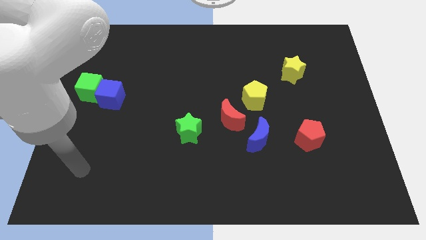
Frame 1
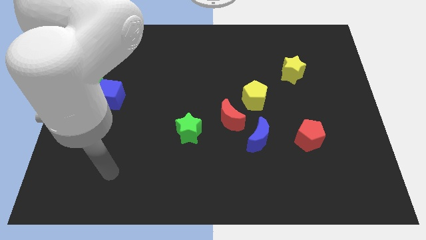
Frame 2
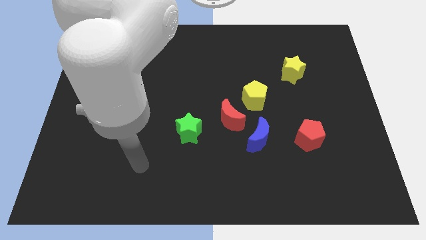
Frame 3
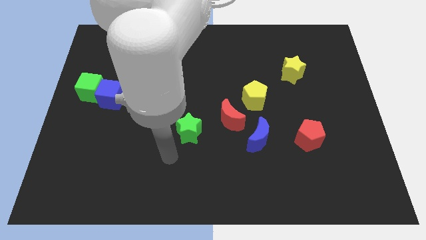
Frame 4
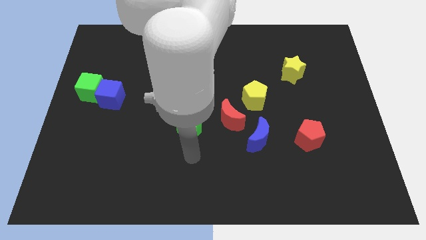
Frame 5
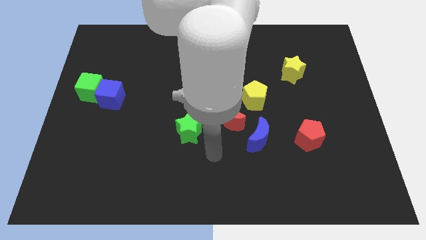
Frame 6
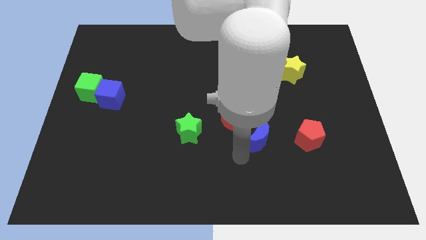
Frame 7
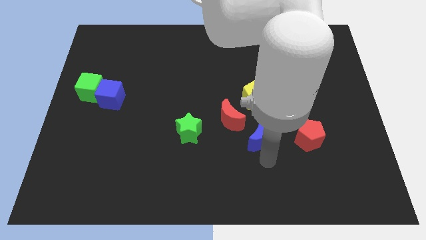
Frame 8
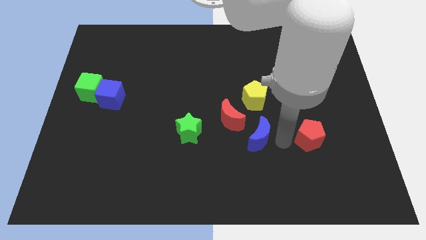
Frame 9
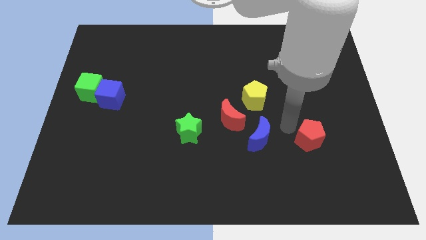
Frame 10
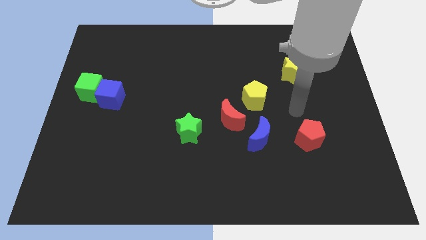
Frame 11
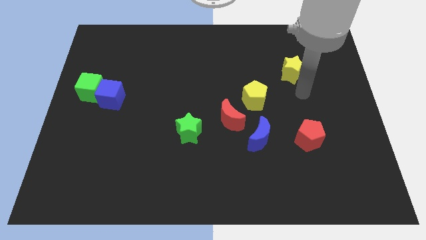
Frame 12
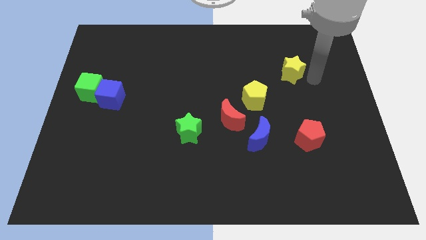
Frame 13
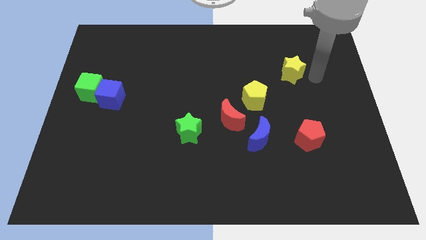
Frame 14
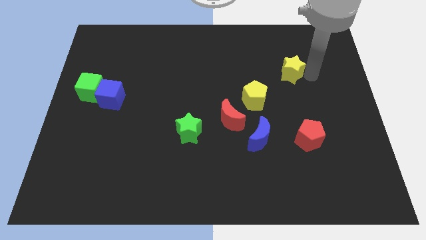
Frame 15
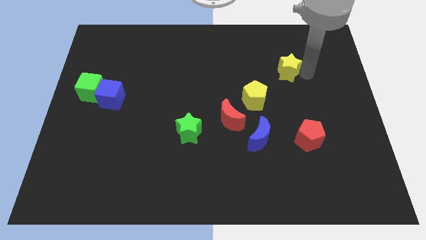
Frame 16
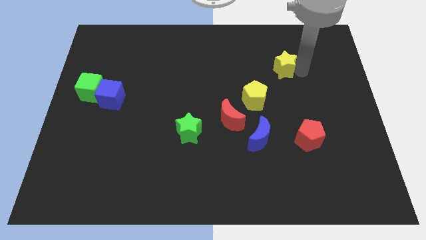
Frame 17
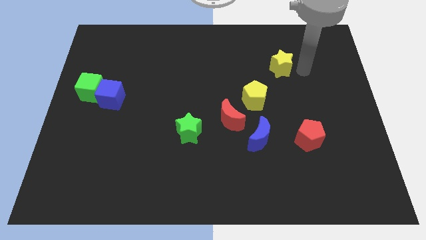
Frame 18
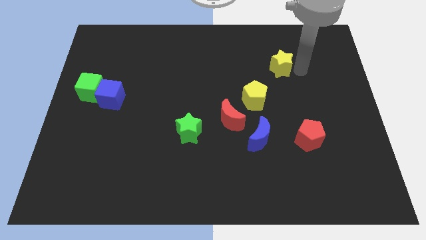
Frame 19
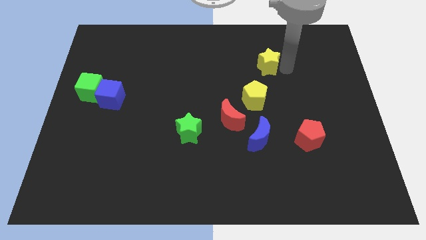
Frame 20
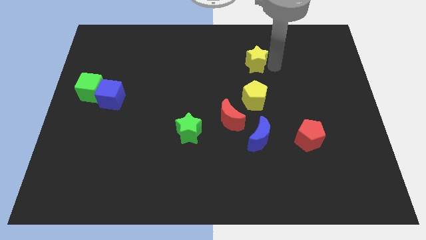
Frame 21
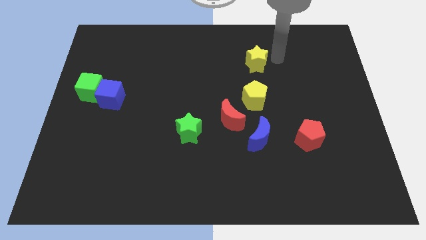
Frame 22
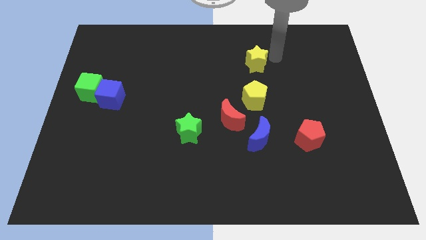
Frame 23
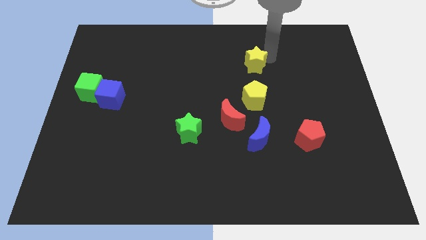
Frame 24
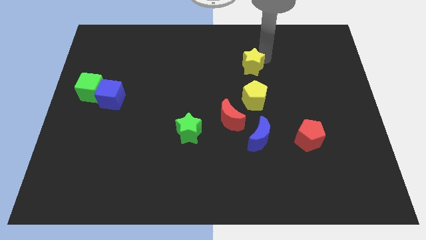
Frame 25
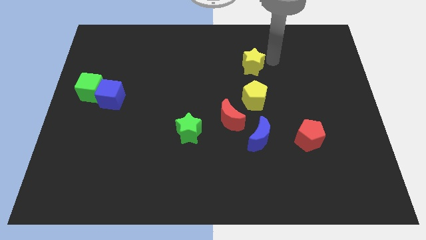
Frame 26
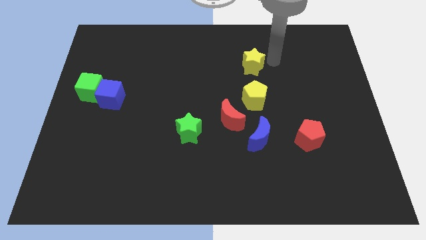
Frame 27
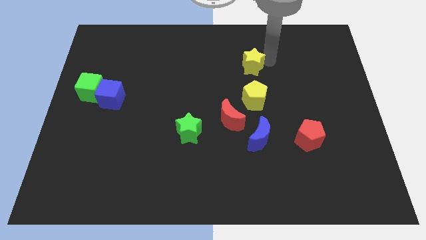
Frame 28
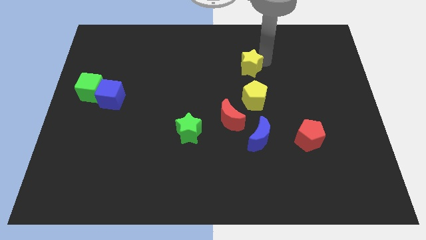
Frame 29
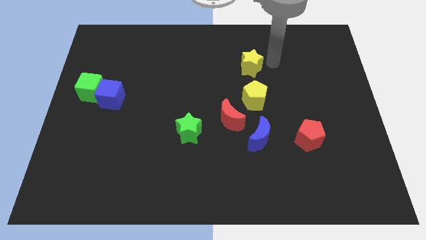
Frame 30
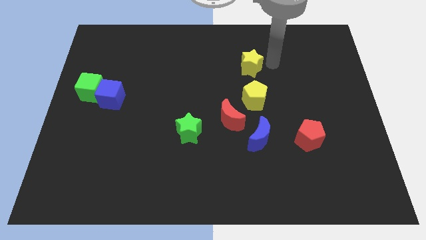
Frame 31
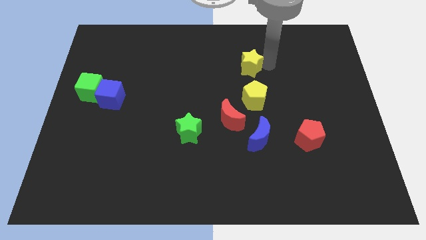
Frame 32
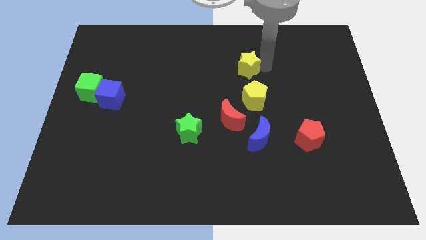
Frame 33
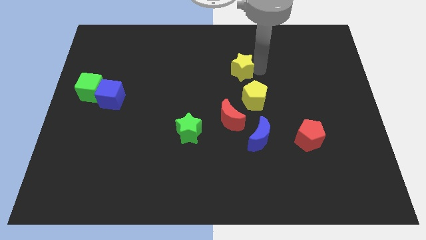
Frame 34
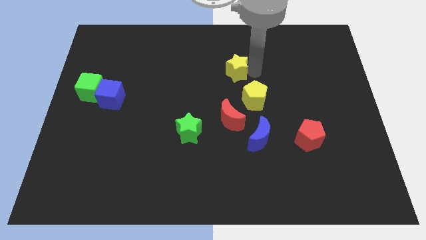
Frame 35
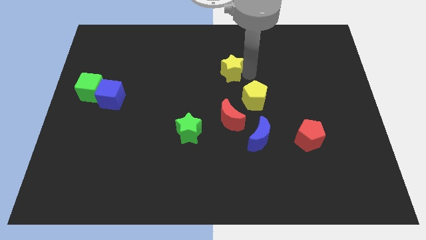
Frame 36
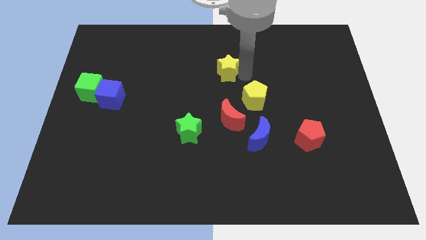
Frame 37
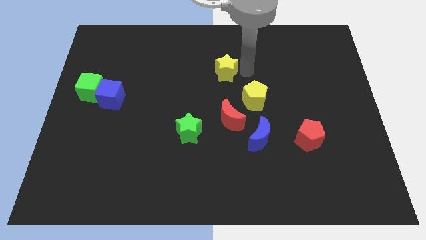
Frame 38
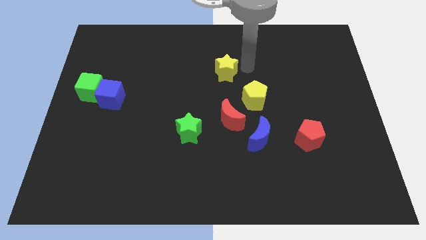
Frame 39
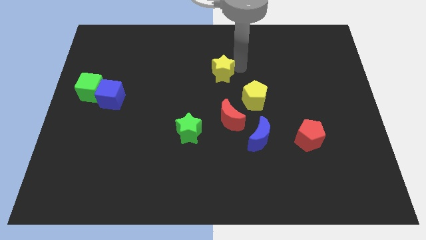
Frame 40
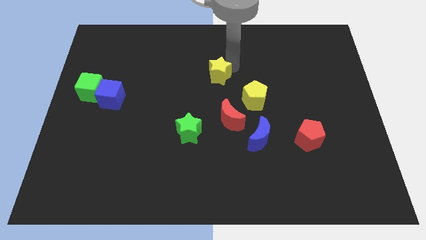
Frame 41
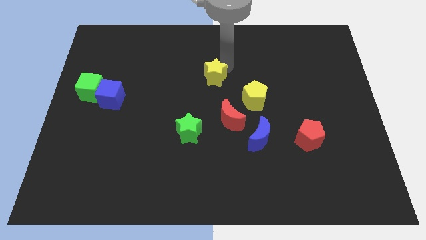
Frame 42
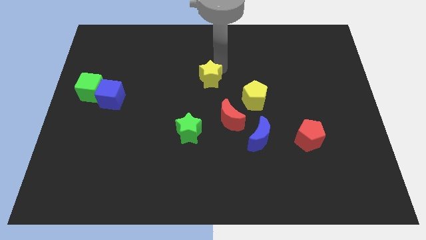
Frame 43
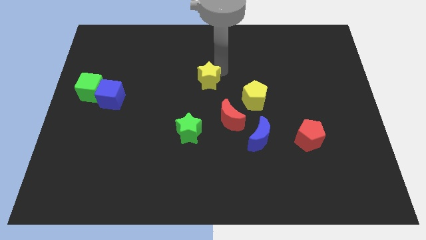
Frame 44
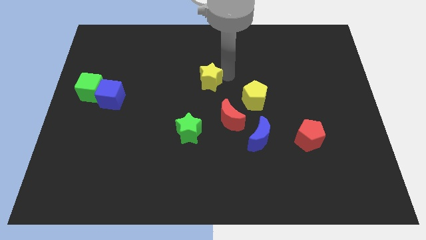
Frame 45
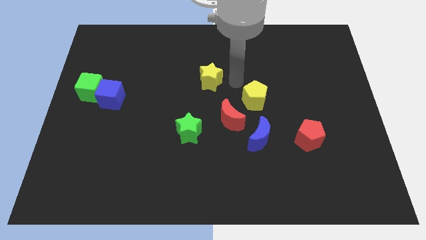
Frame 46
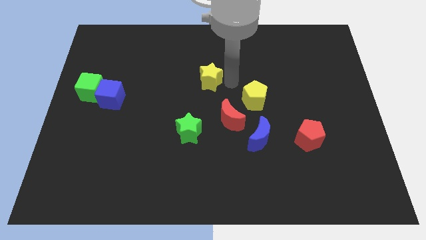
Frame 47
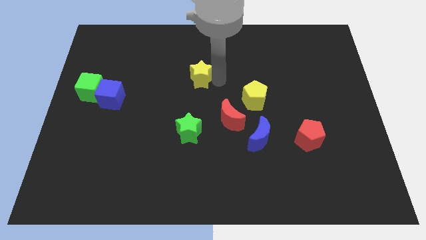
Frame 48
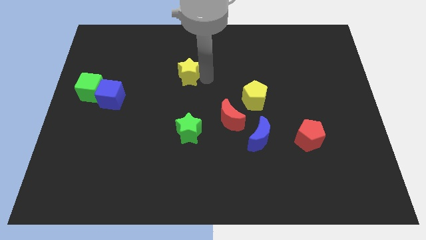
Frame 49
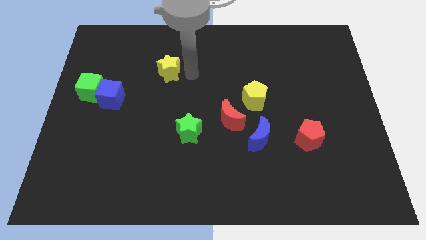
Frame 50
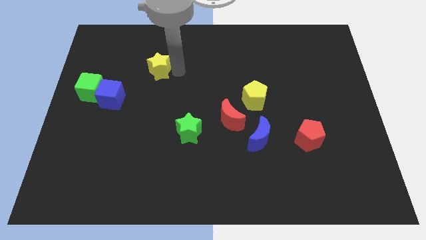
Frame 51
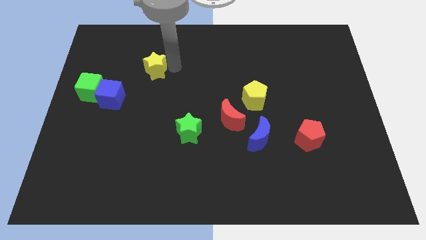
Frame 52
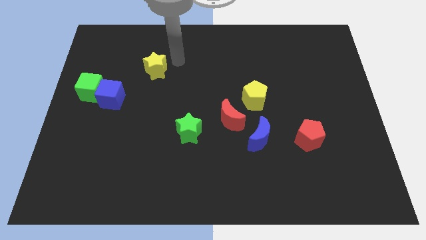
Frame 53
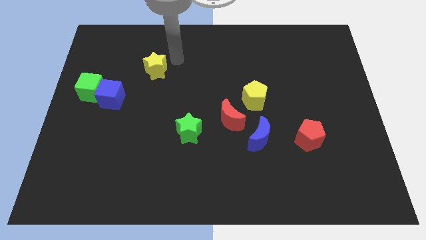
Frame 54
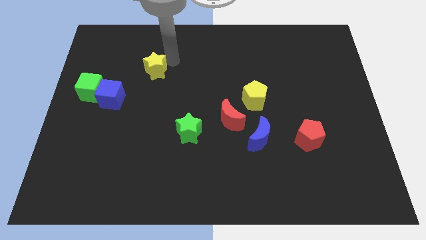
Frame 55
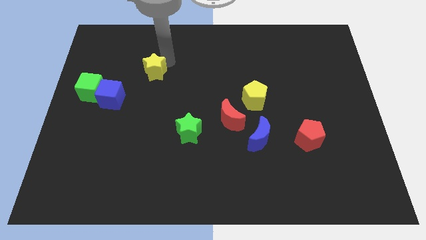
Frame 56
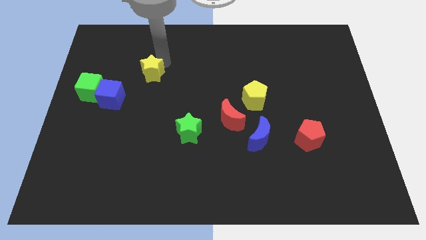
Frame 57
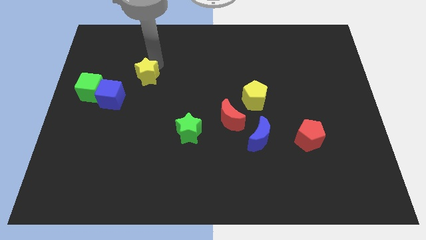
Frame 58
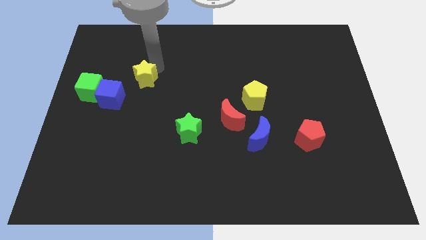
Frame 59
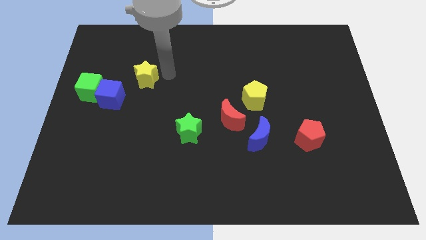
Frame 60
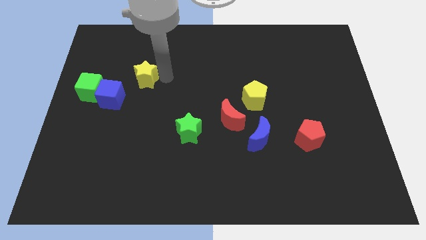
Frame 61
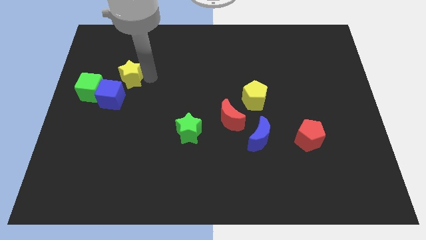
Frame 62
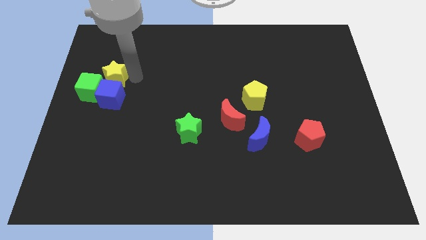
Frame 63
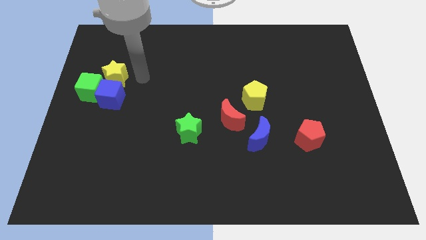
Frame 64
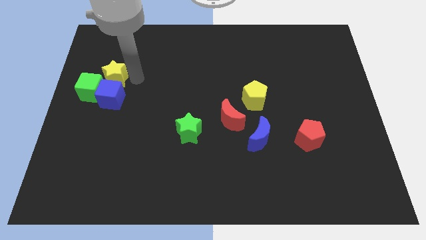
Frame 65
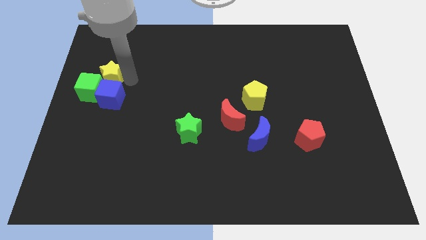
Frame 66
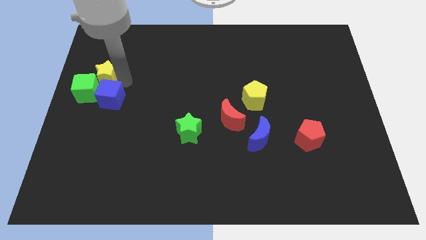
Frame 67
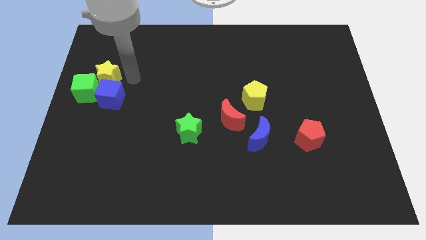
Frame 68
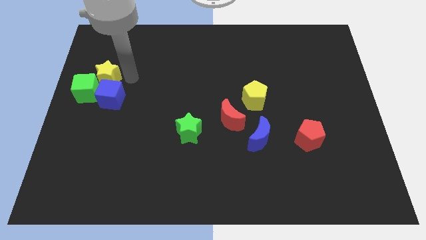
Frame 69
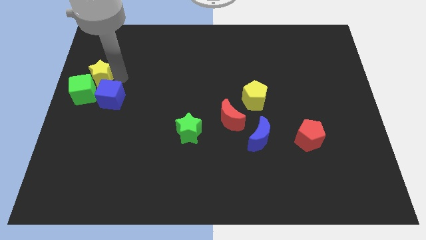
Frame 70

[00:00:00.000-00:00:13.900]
put the yellow star to the left side of the board
